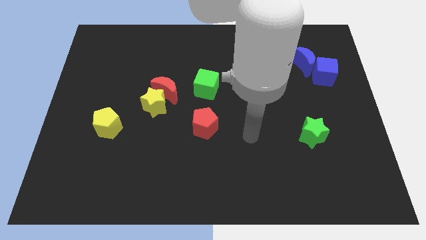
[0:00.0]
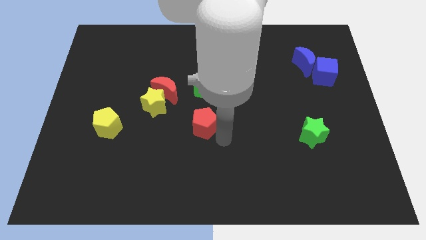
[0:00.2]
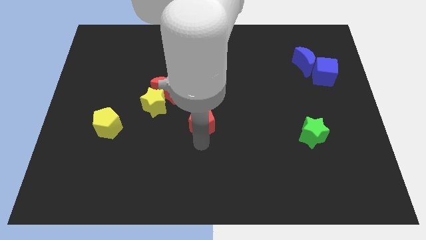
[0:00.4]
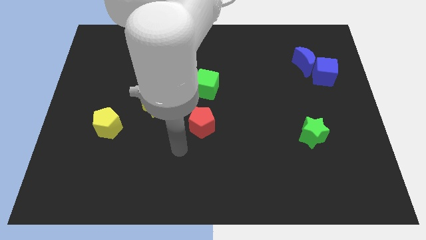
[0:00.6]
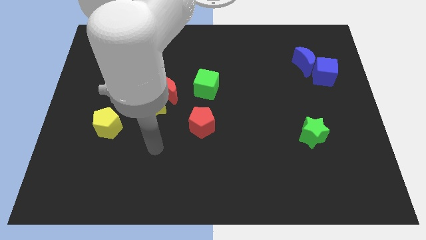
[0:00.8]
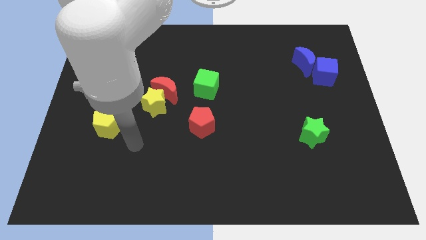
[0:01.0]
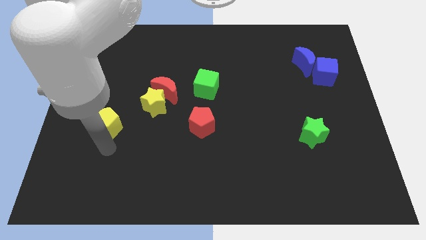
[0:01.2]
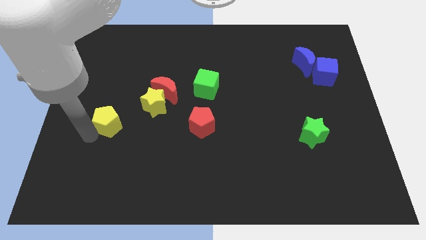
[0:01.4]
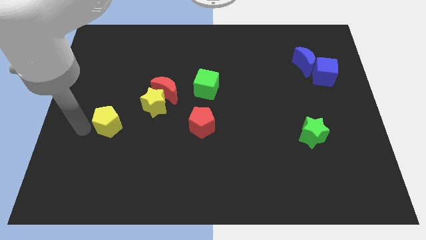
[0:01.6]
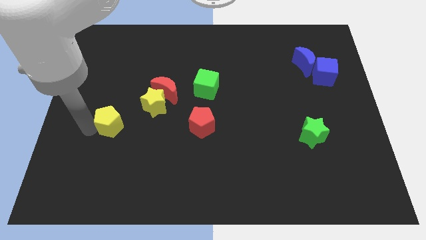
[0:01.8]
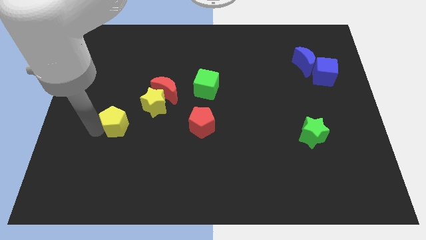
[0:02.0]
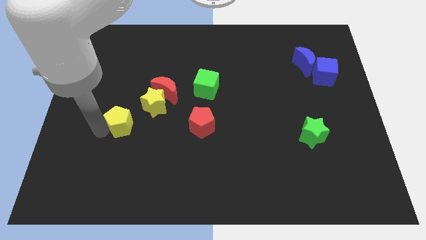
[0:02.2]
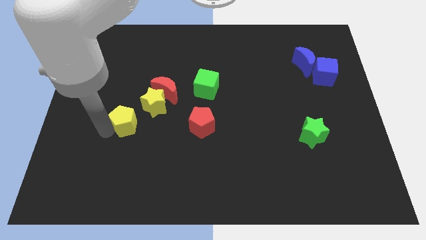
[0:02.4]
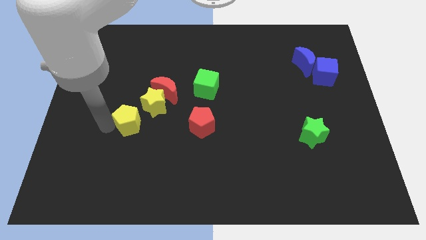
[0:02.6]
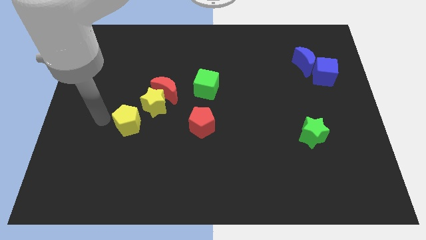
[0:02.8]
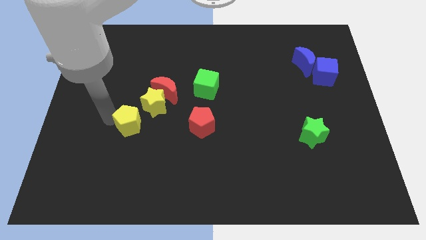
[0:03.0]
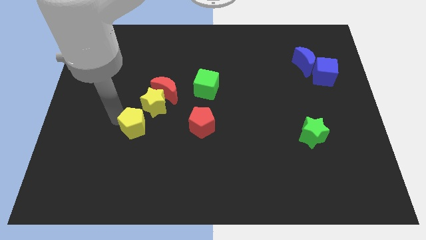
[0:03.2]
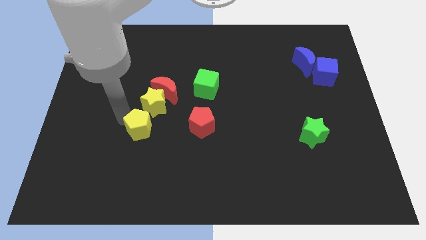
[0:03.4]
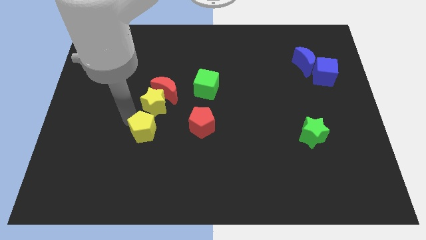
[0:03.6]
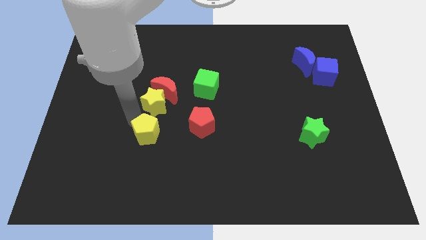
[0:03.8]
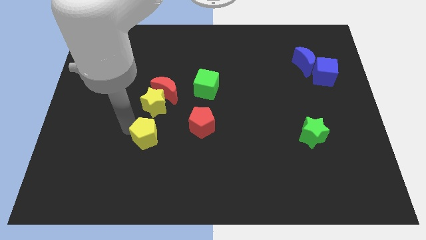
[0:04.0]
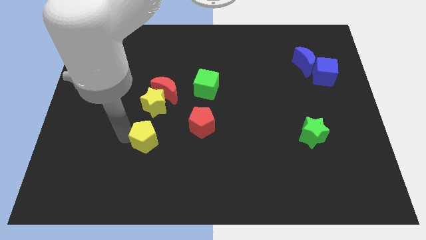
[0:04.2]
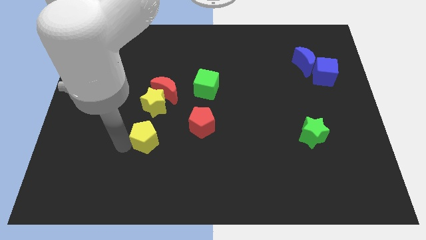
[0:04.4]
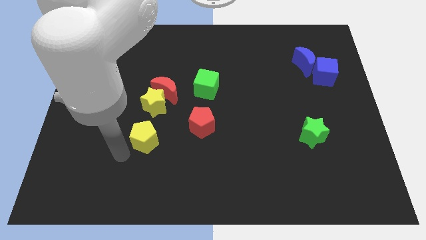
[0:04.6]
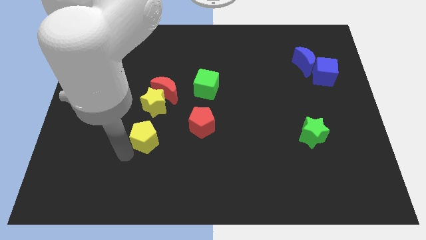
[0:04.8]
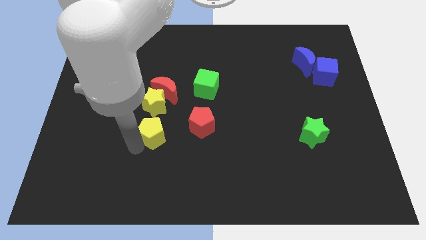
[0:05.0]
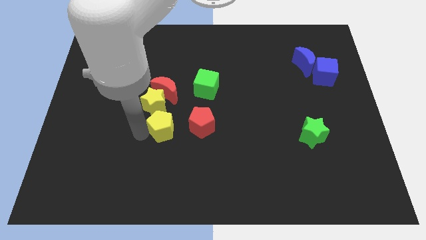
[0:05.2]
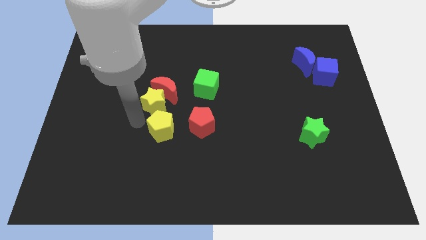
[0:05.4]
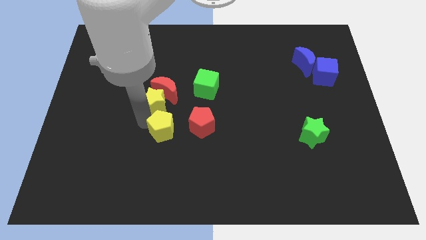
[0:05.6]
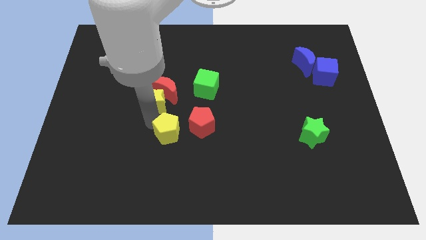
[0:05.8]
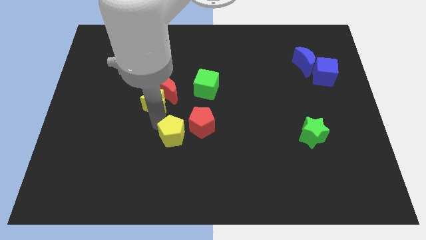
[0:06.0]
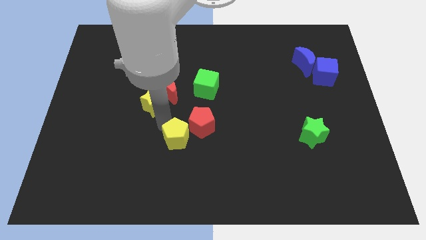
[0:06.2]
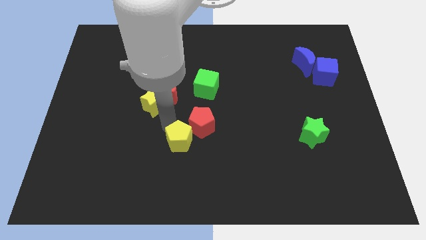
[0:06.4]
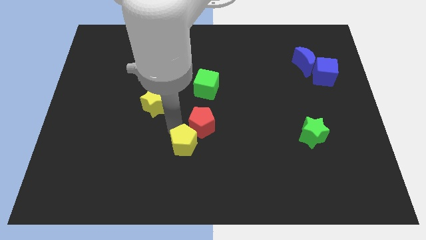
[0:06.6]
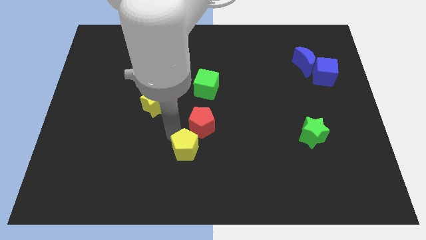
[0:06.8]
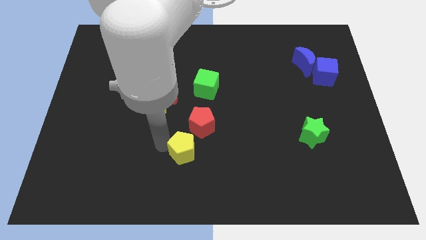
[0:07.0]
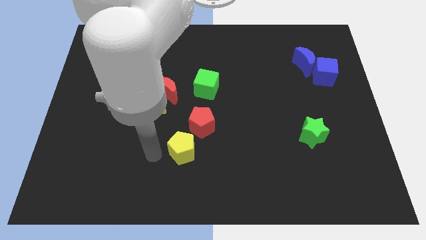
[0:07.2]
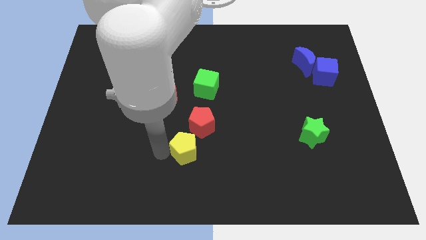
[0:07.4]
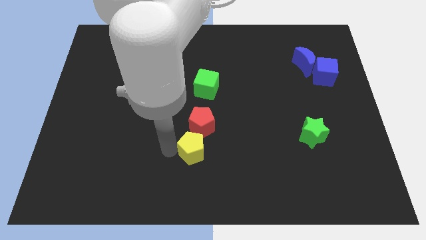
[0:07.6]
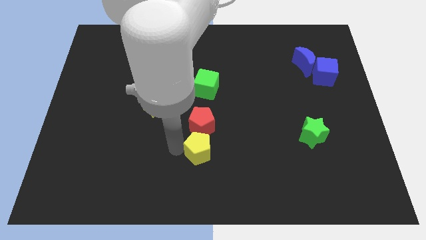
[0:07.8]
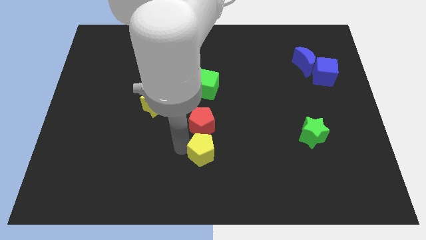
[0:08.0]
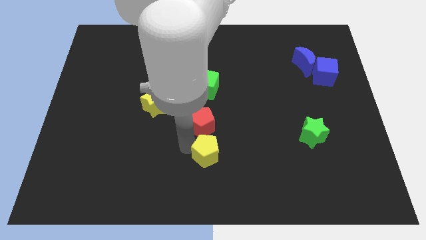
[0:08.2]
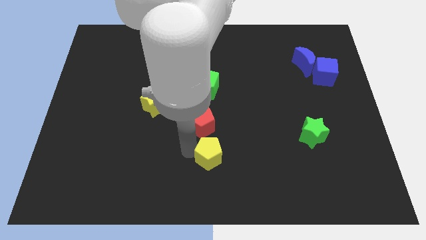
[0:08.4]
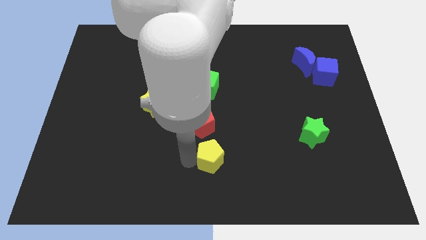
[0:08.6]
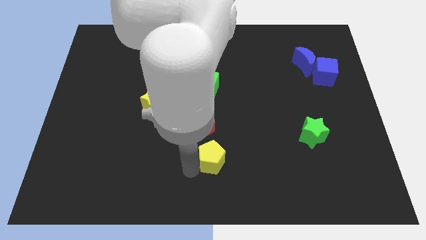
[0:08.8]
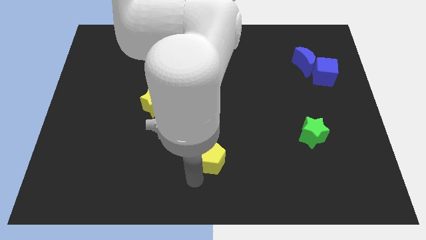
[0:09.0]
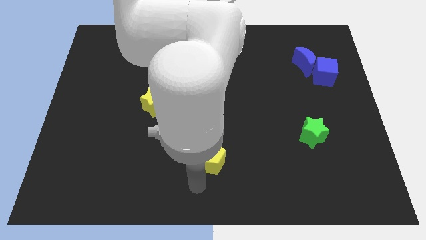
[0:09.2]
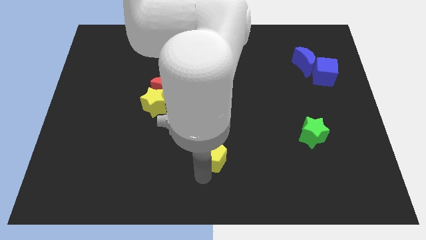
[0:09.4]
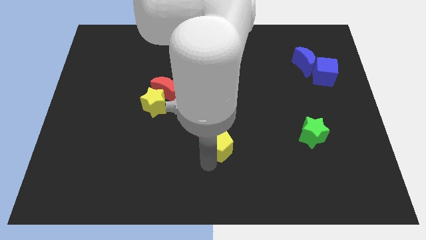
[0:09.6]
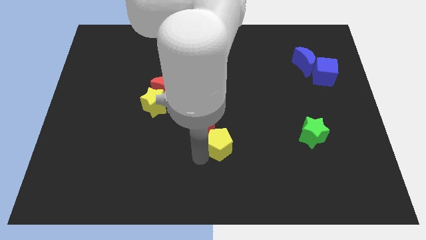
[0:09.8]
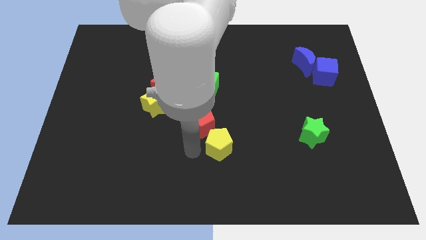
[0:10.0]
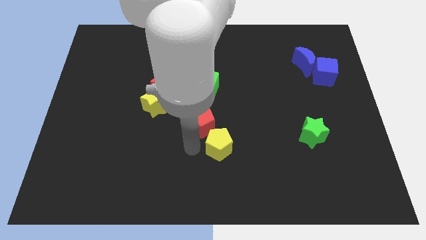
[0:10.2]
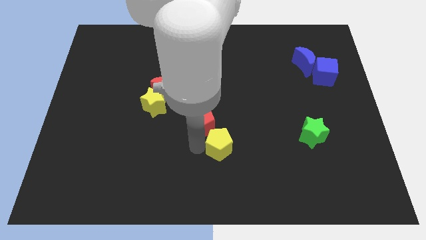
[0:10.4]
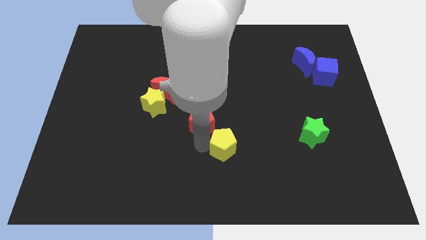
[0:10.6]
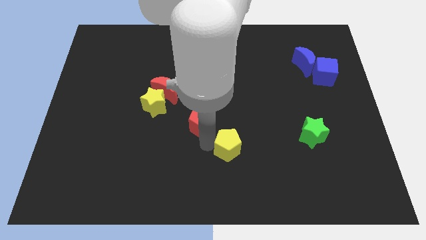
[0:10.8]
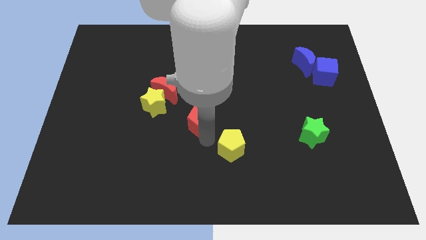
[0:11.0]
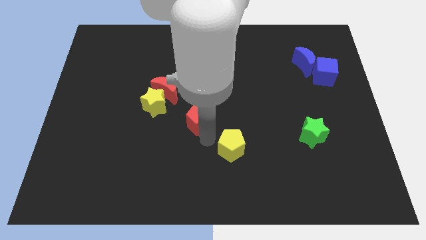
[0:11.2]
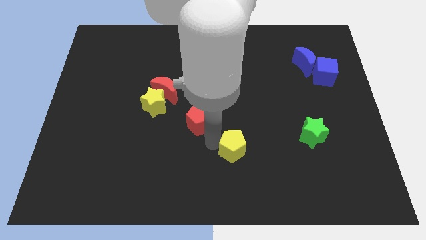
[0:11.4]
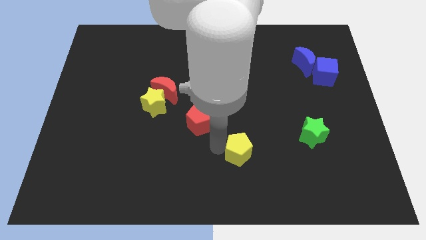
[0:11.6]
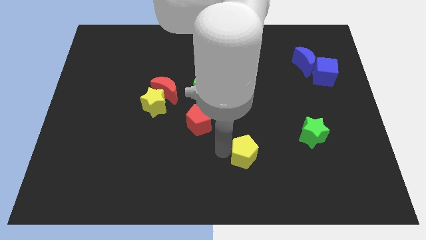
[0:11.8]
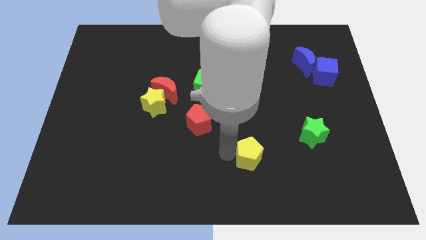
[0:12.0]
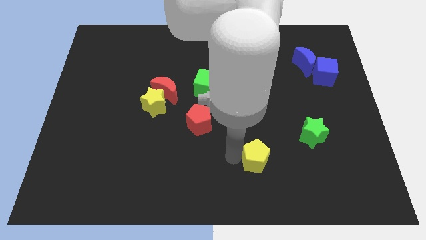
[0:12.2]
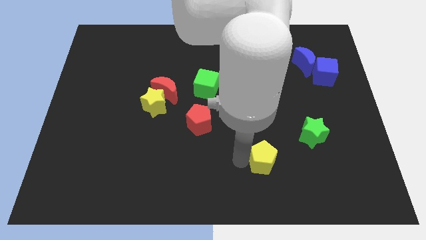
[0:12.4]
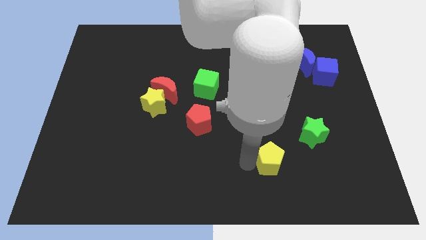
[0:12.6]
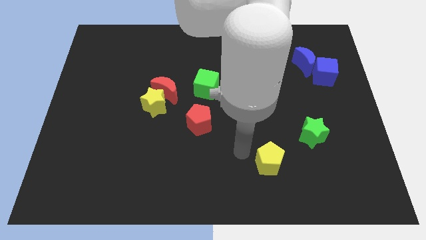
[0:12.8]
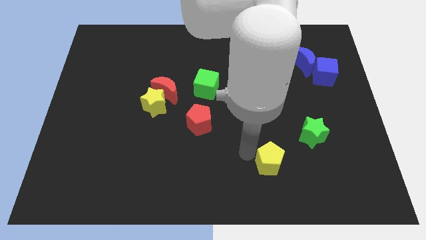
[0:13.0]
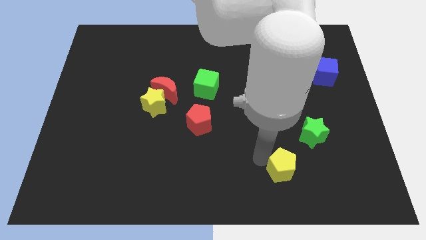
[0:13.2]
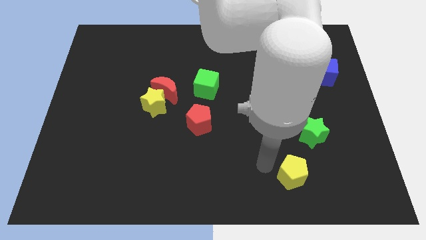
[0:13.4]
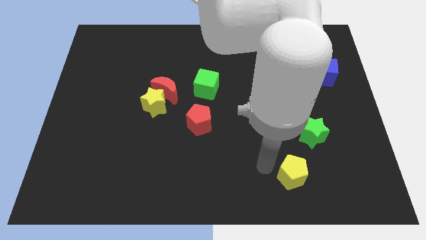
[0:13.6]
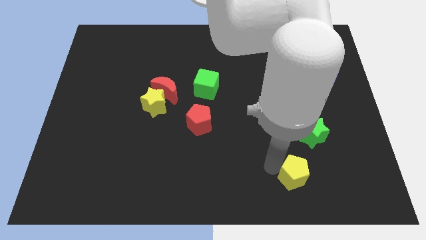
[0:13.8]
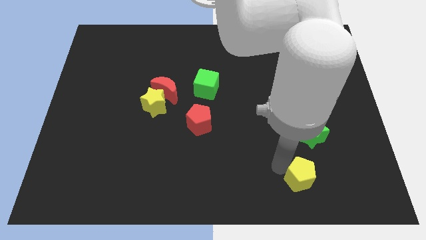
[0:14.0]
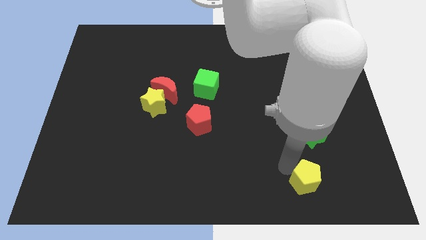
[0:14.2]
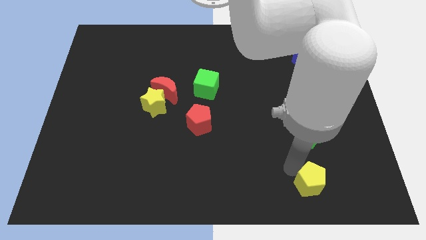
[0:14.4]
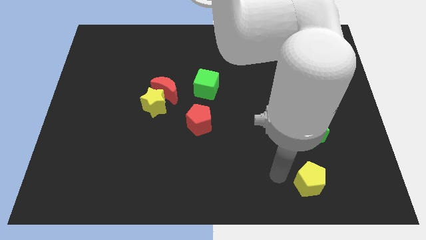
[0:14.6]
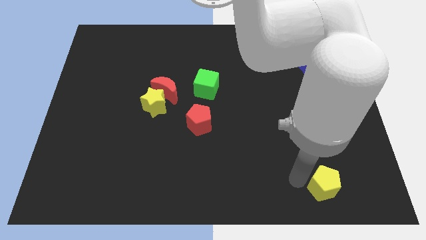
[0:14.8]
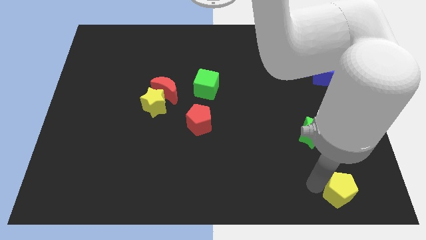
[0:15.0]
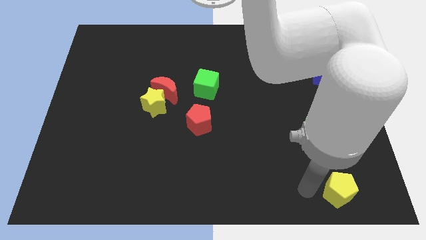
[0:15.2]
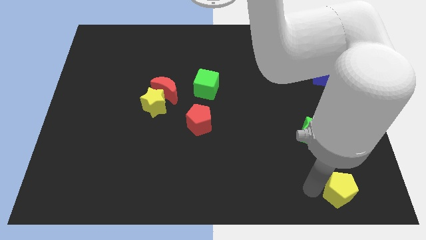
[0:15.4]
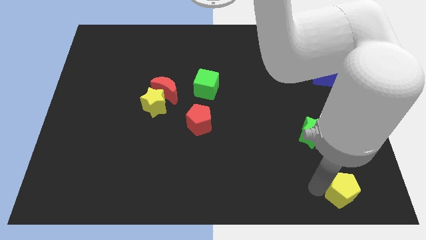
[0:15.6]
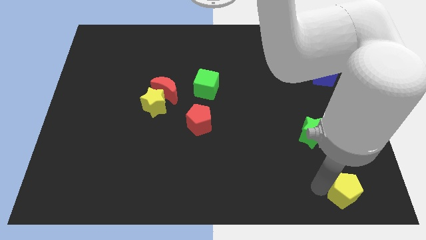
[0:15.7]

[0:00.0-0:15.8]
move the yellow pentagon to the bottom right
